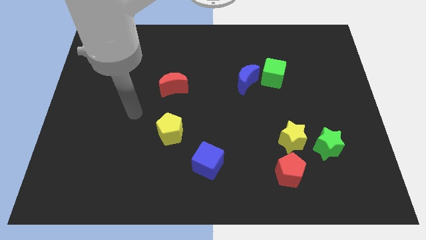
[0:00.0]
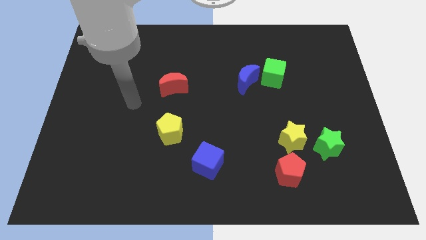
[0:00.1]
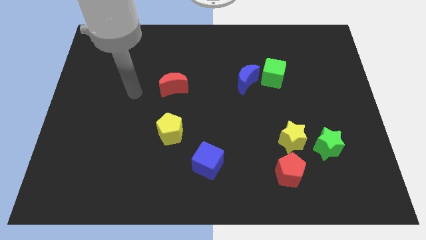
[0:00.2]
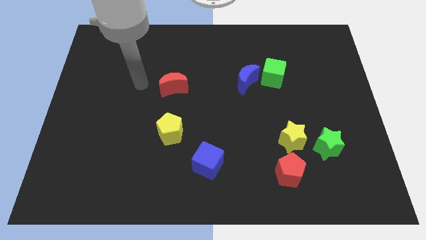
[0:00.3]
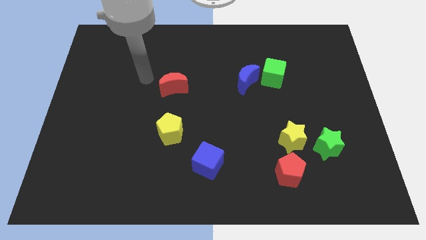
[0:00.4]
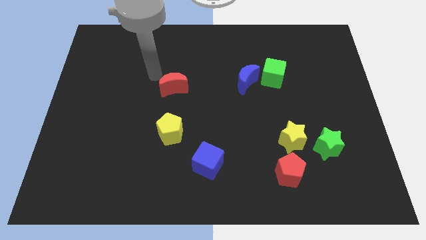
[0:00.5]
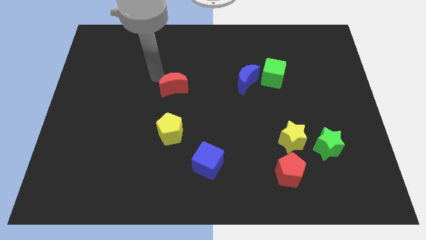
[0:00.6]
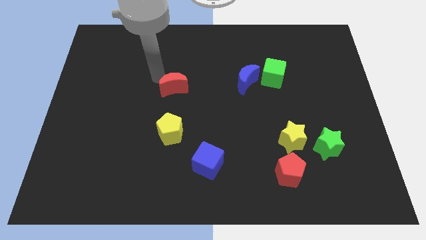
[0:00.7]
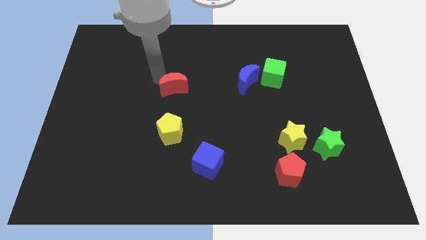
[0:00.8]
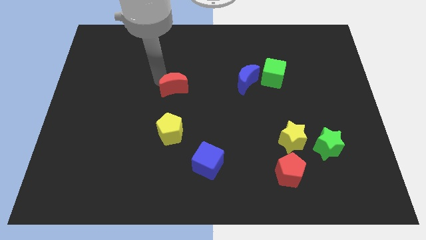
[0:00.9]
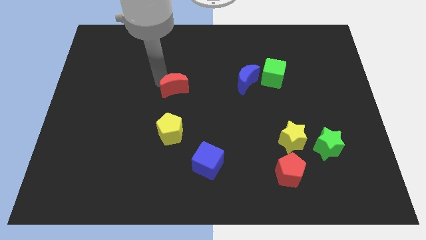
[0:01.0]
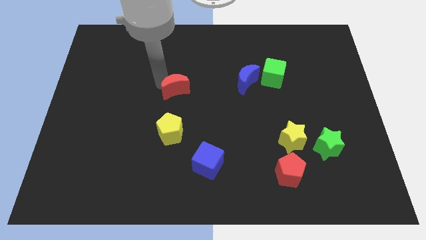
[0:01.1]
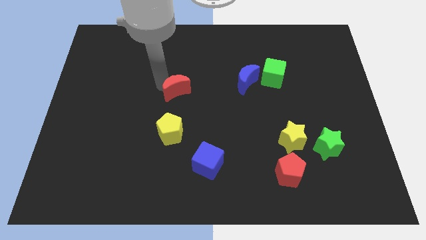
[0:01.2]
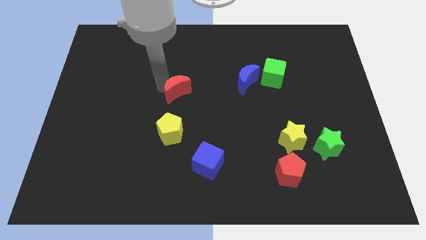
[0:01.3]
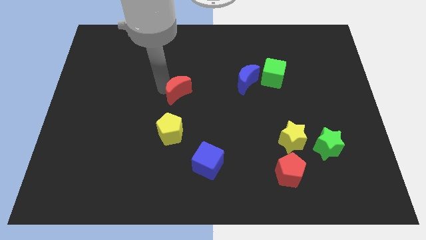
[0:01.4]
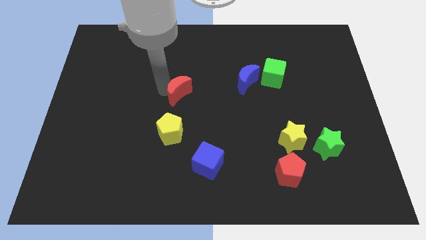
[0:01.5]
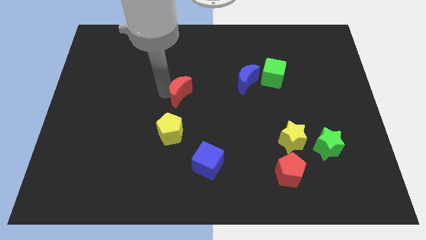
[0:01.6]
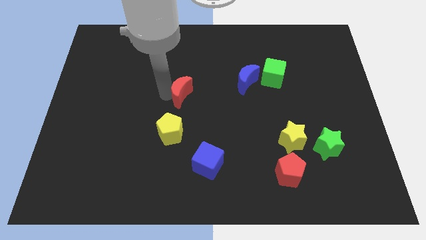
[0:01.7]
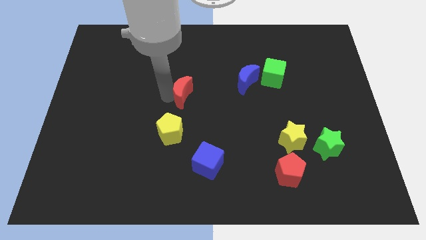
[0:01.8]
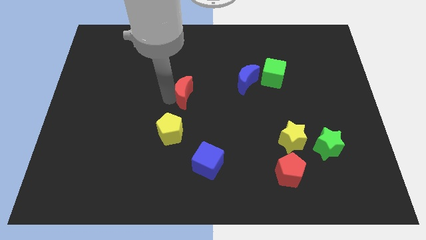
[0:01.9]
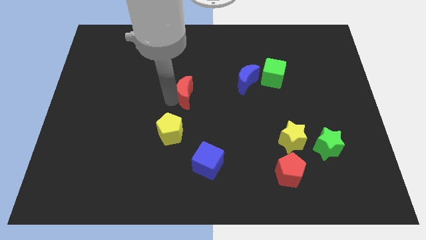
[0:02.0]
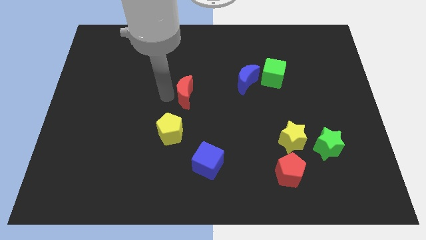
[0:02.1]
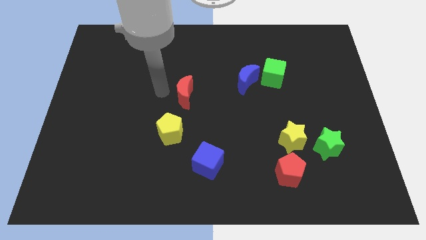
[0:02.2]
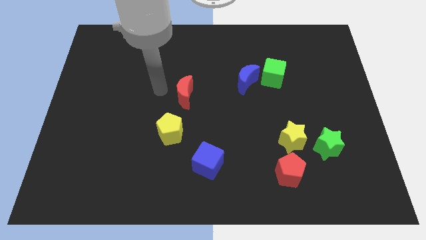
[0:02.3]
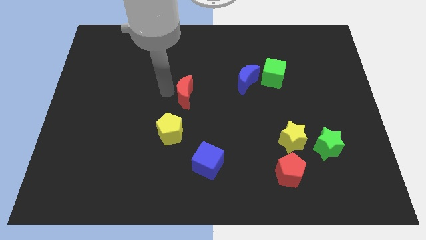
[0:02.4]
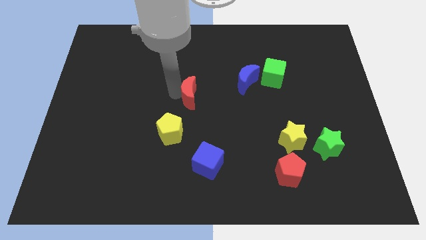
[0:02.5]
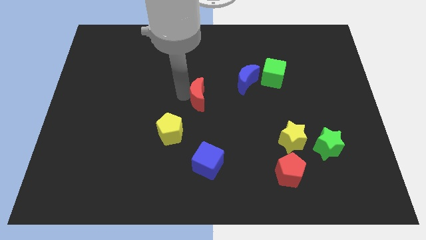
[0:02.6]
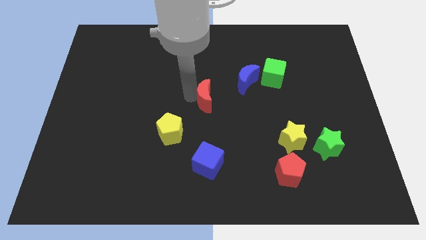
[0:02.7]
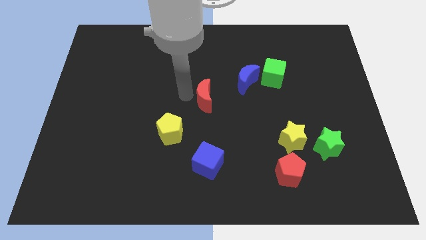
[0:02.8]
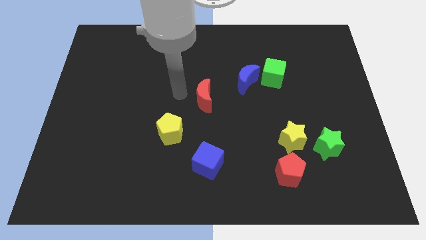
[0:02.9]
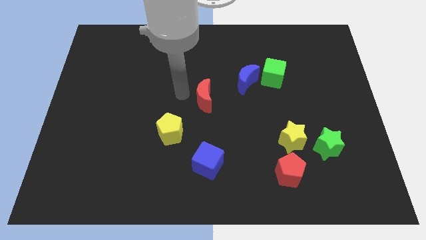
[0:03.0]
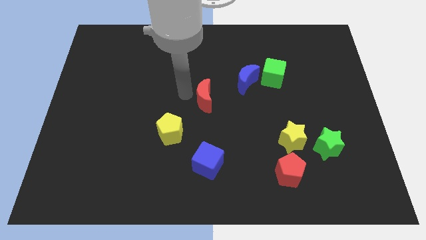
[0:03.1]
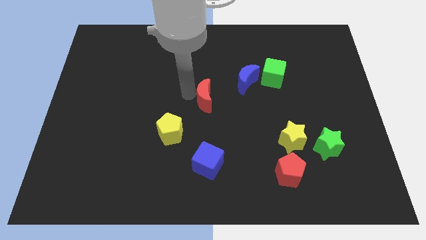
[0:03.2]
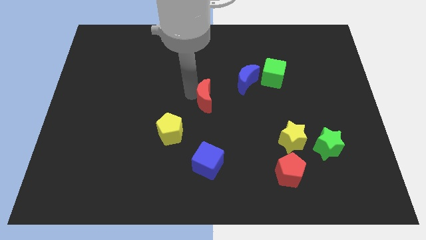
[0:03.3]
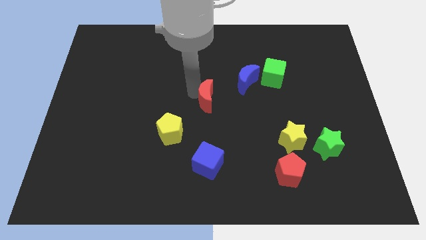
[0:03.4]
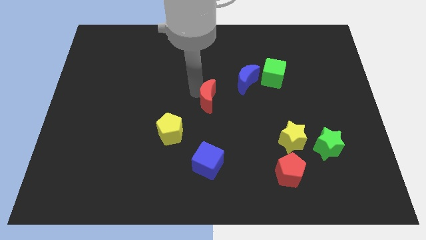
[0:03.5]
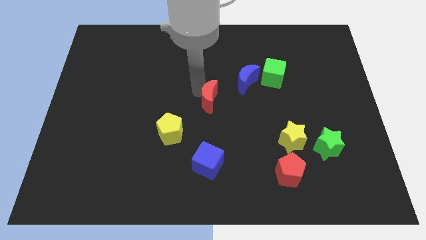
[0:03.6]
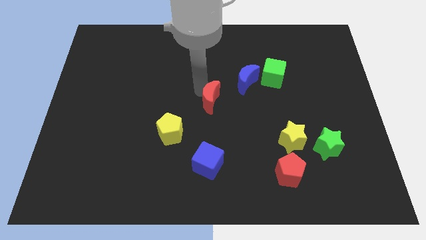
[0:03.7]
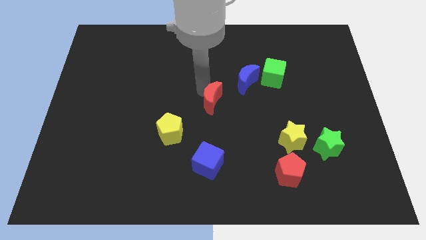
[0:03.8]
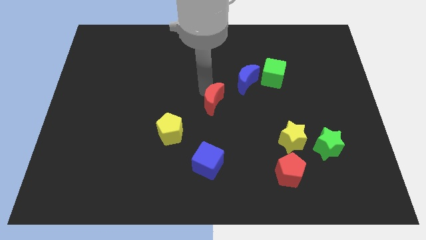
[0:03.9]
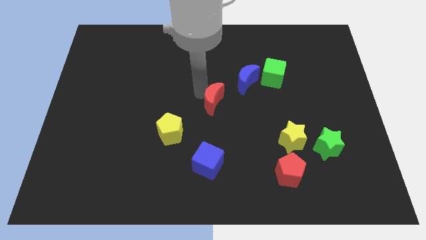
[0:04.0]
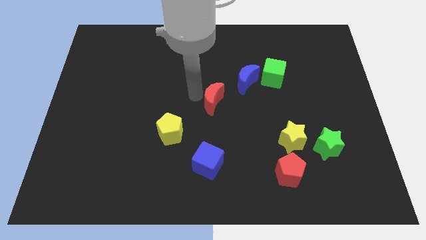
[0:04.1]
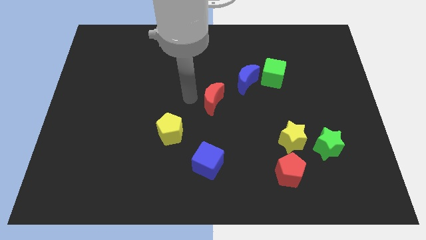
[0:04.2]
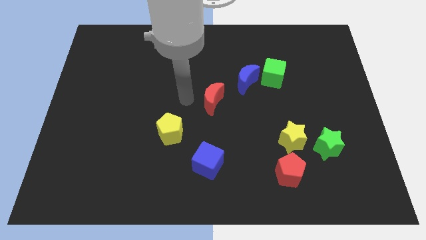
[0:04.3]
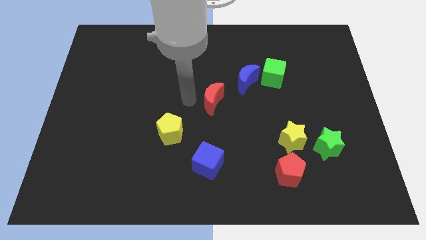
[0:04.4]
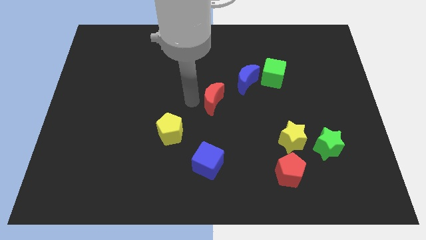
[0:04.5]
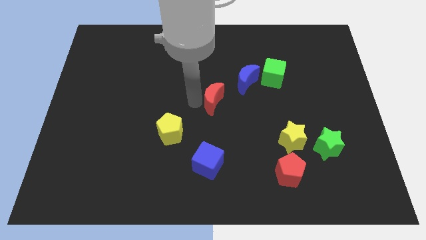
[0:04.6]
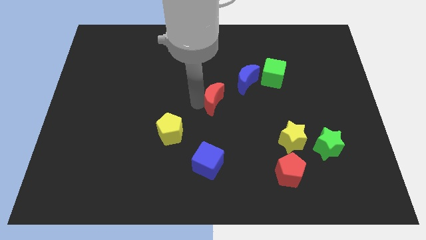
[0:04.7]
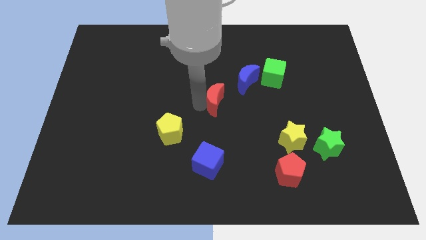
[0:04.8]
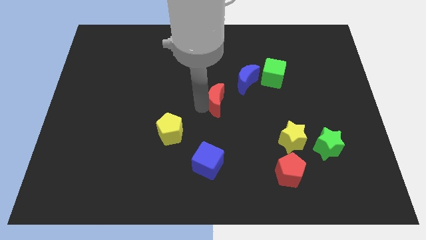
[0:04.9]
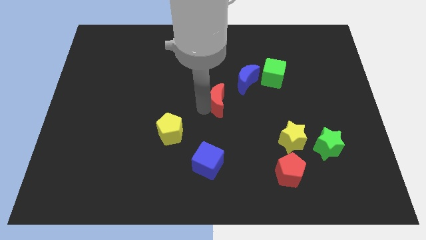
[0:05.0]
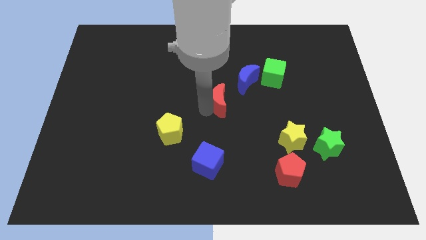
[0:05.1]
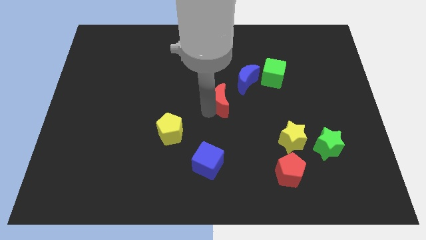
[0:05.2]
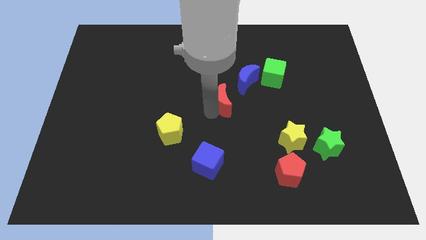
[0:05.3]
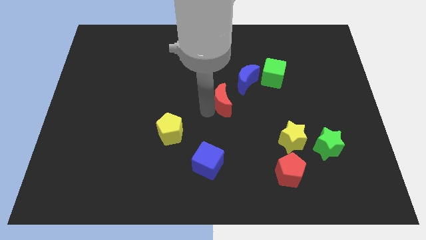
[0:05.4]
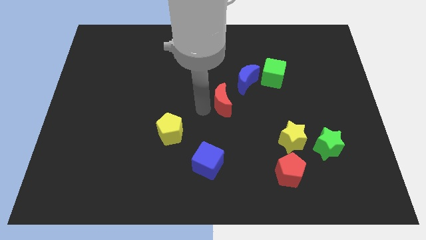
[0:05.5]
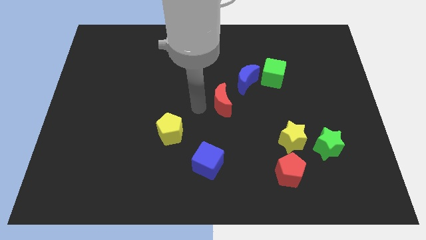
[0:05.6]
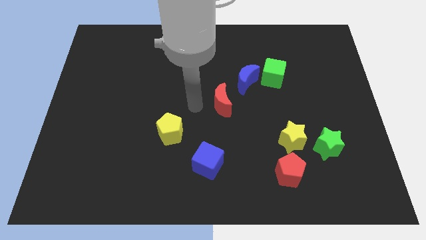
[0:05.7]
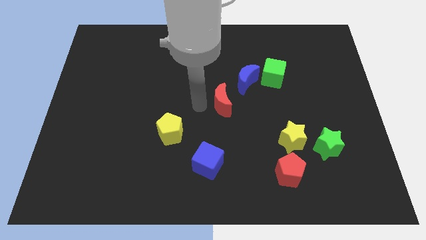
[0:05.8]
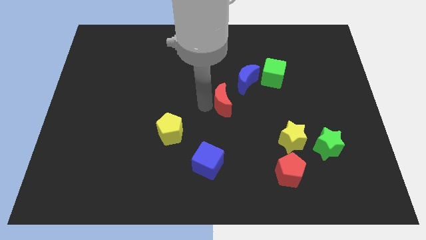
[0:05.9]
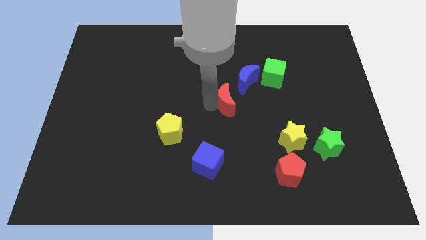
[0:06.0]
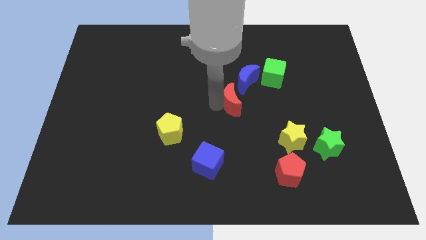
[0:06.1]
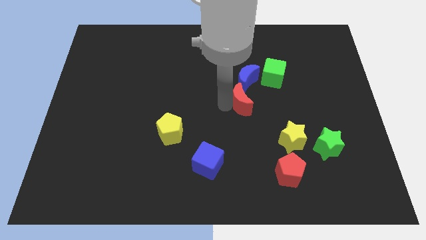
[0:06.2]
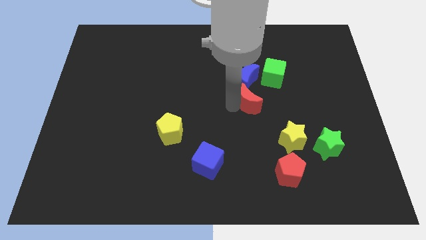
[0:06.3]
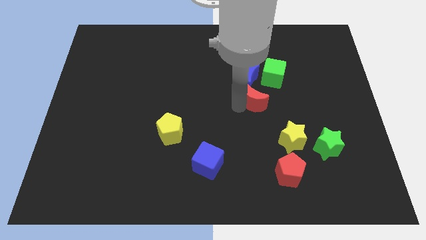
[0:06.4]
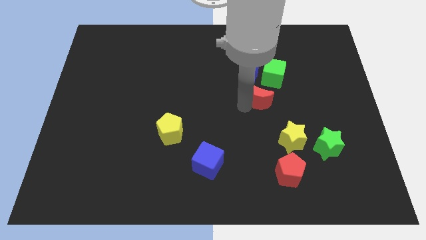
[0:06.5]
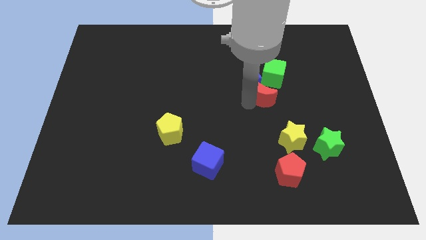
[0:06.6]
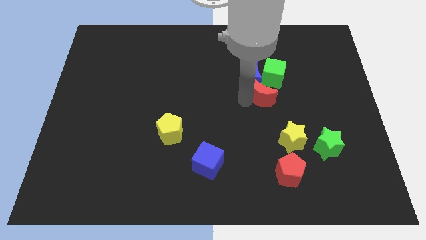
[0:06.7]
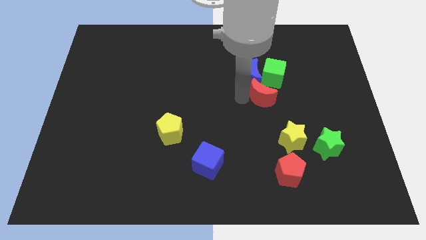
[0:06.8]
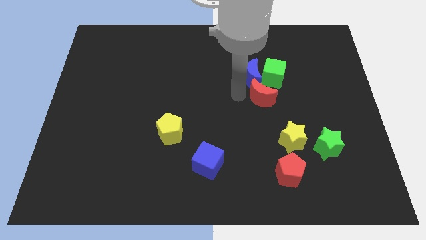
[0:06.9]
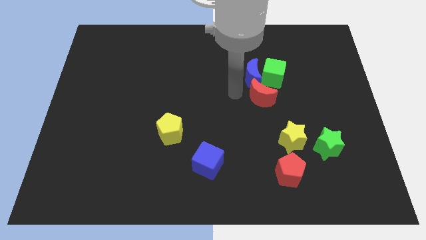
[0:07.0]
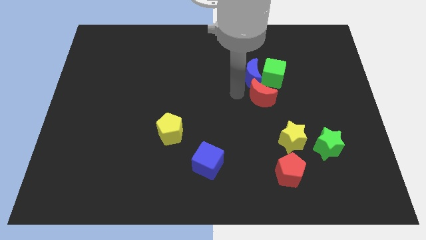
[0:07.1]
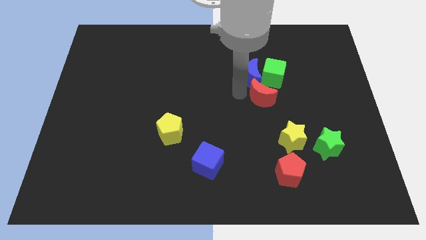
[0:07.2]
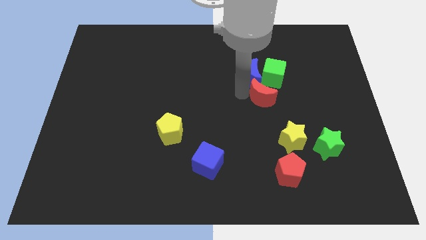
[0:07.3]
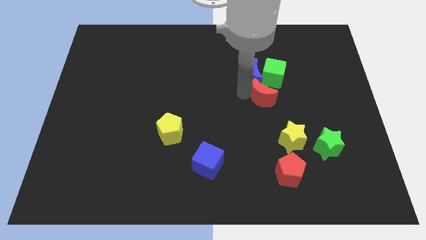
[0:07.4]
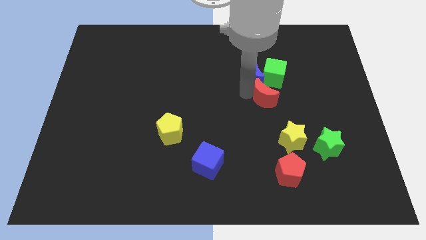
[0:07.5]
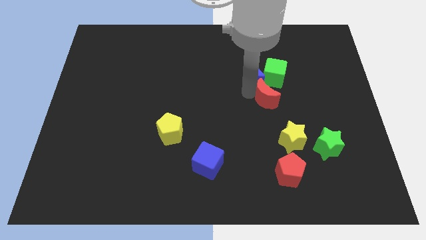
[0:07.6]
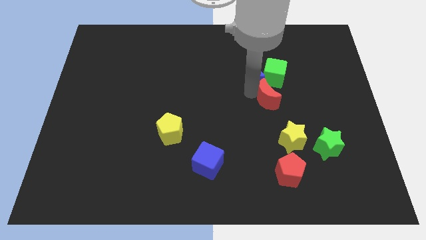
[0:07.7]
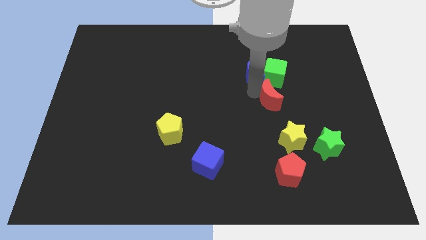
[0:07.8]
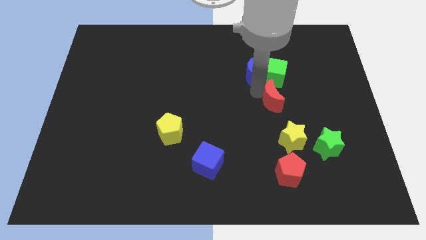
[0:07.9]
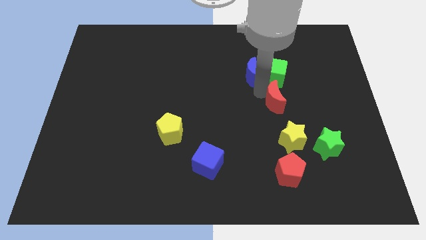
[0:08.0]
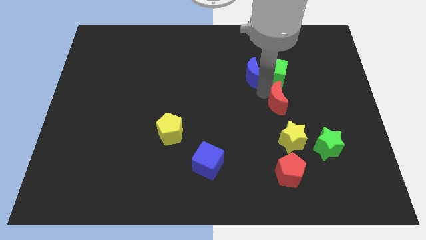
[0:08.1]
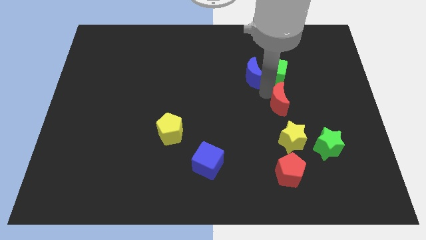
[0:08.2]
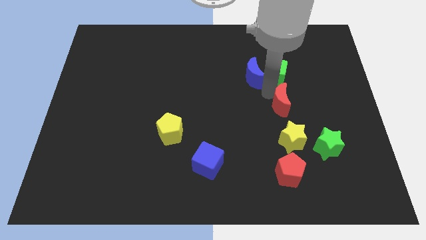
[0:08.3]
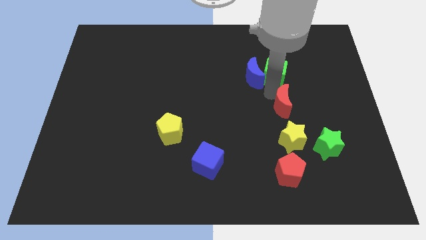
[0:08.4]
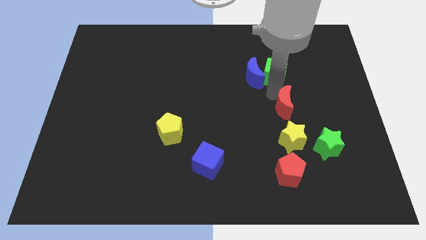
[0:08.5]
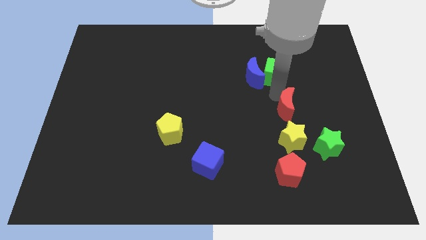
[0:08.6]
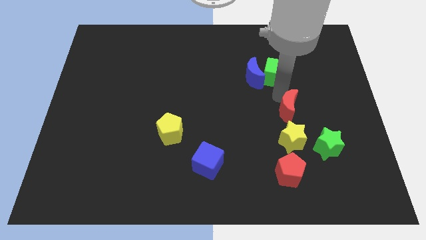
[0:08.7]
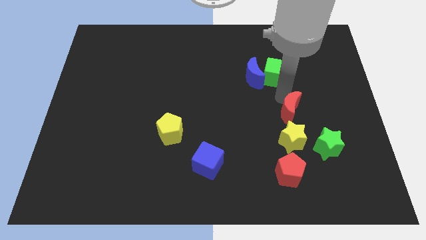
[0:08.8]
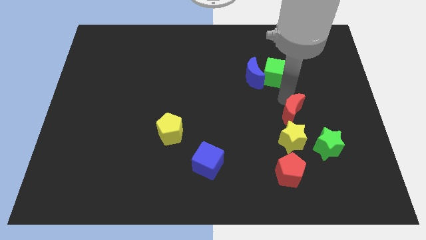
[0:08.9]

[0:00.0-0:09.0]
put the red moon diagonally up and to the right of the yellow star
